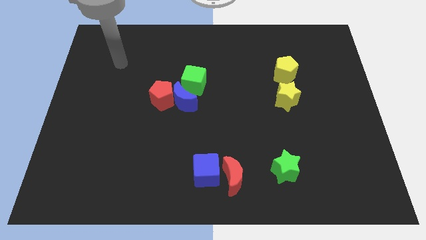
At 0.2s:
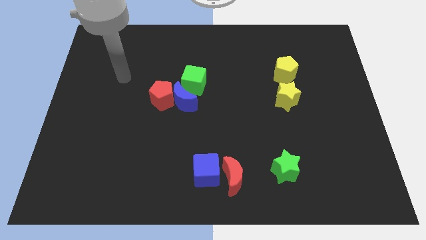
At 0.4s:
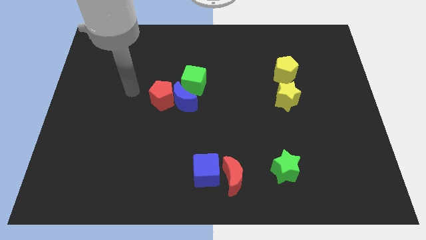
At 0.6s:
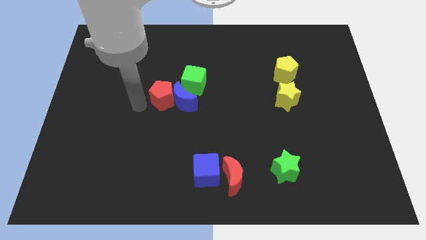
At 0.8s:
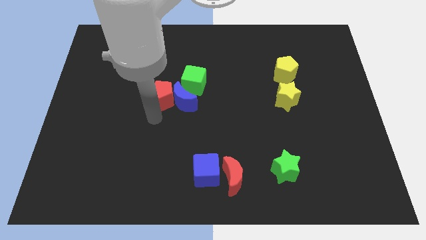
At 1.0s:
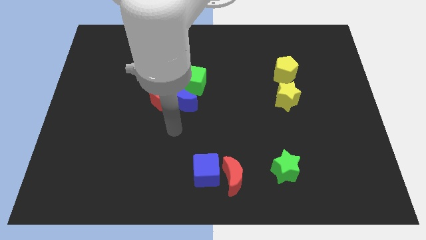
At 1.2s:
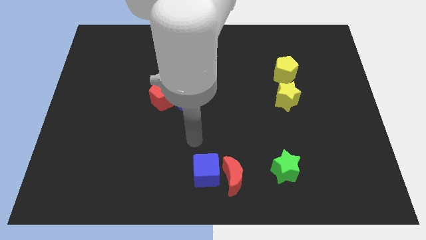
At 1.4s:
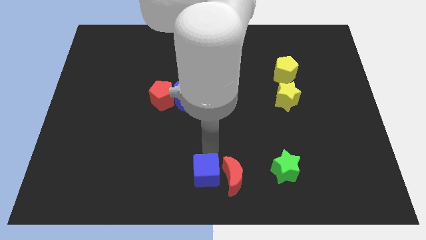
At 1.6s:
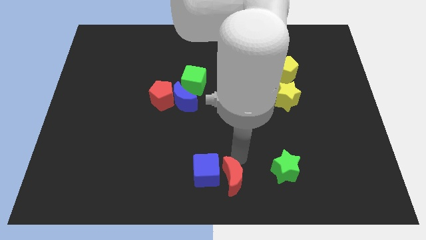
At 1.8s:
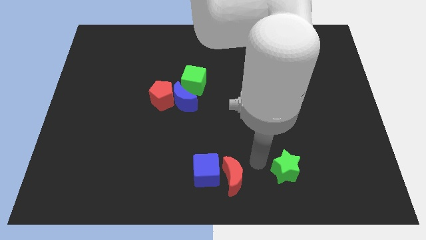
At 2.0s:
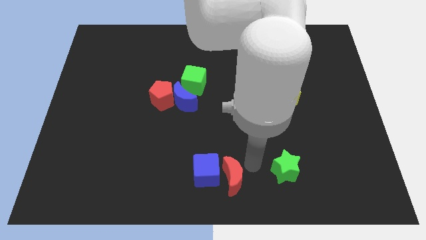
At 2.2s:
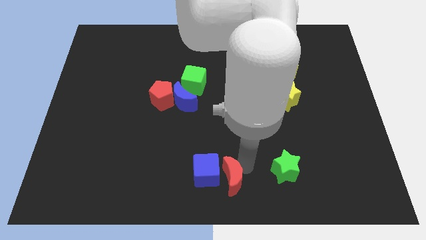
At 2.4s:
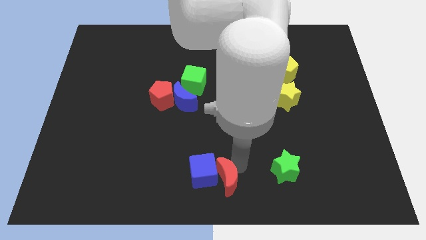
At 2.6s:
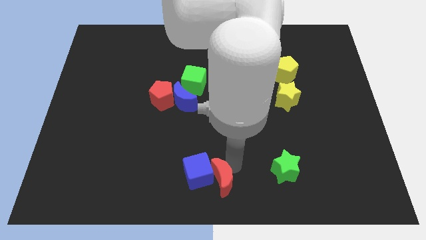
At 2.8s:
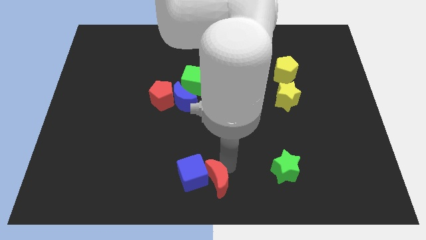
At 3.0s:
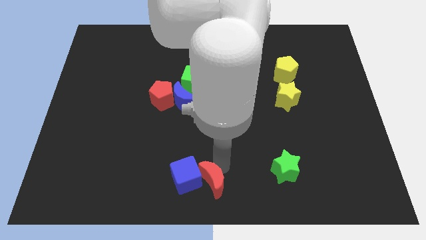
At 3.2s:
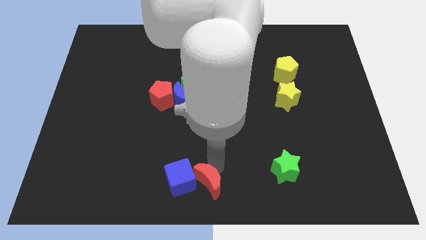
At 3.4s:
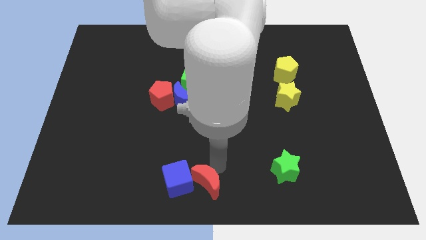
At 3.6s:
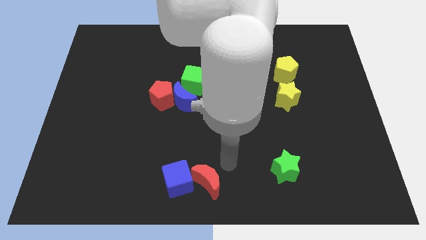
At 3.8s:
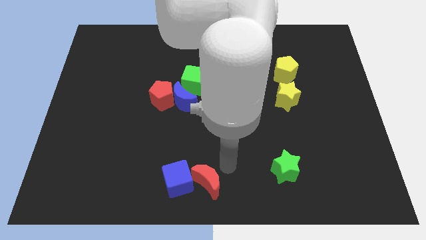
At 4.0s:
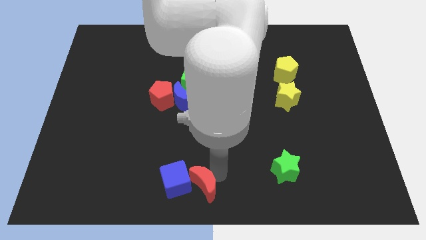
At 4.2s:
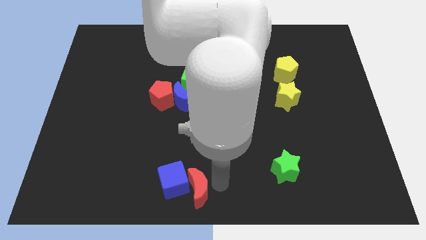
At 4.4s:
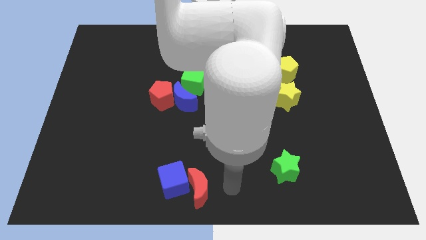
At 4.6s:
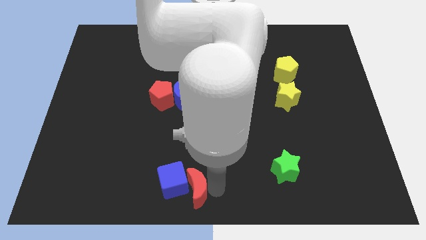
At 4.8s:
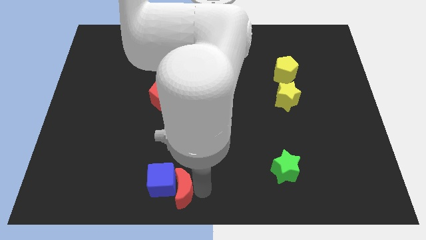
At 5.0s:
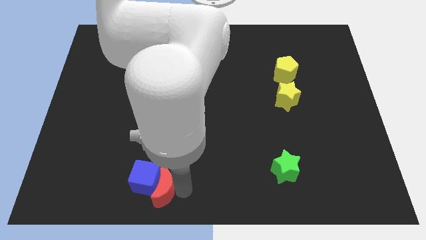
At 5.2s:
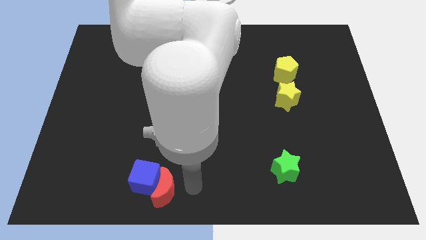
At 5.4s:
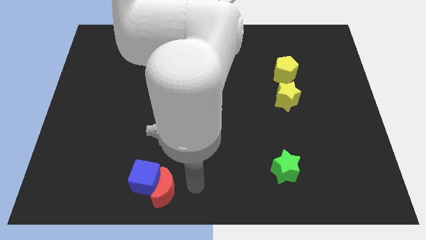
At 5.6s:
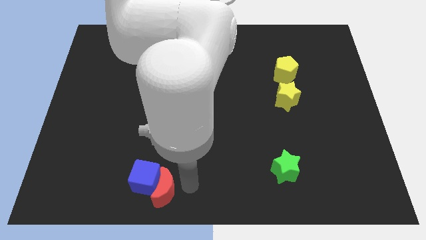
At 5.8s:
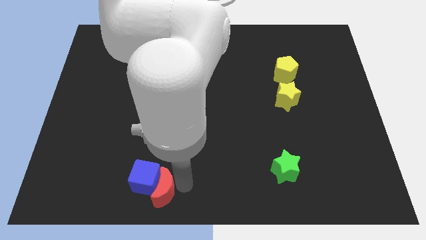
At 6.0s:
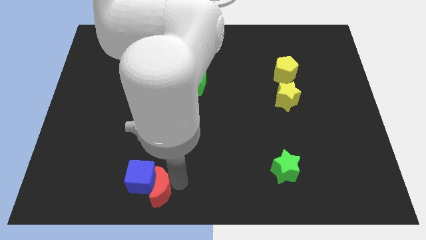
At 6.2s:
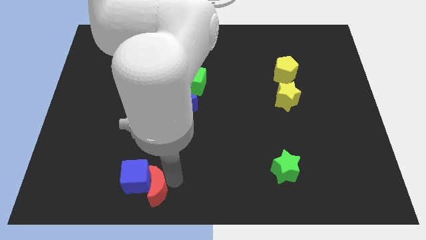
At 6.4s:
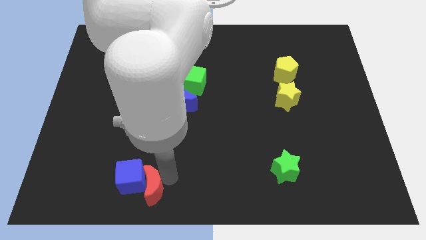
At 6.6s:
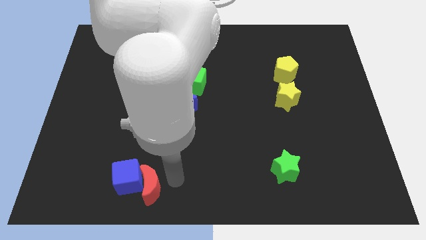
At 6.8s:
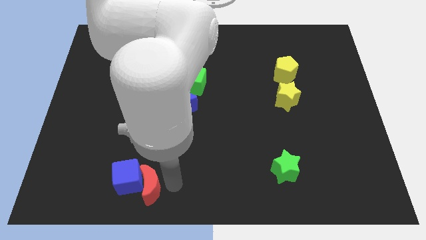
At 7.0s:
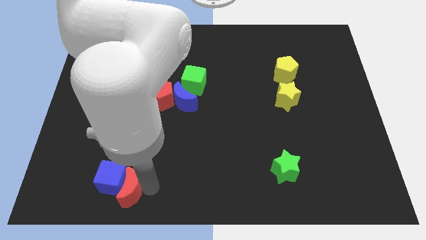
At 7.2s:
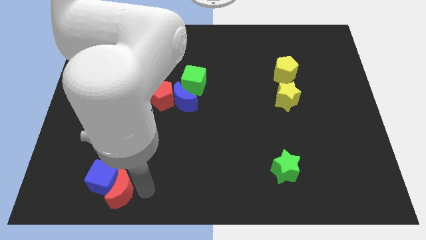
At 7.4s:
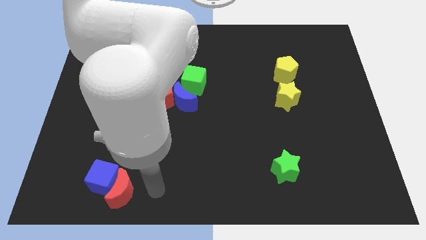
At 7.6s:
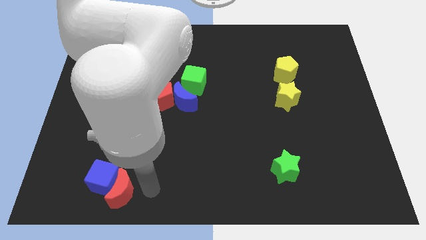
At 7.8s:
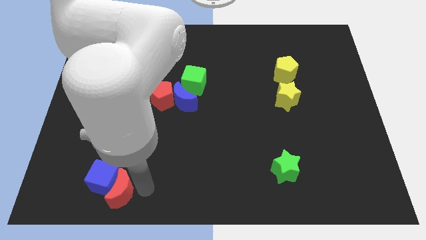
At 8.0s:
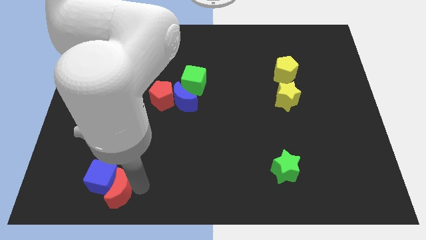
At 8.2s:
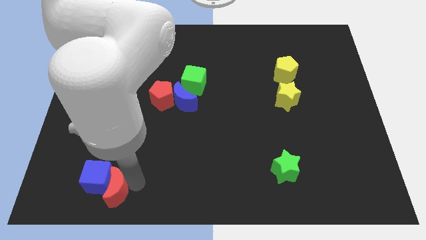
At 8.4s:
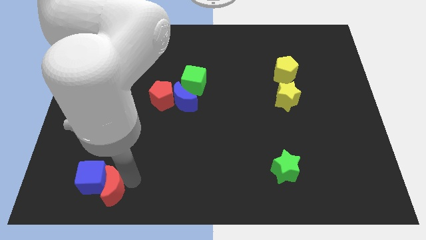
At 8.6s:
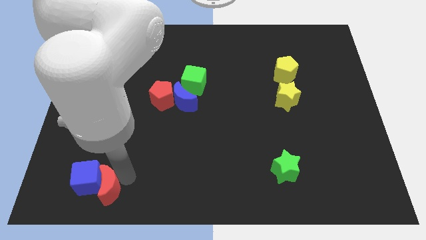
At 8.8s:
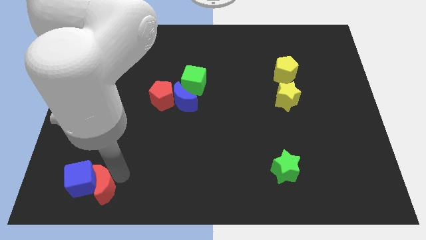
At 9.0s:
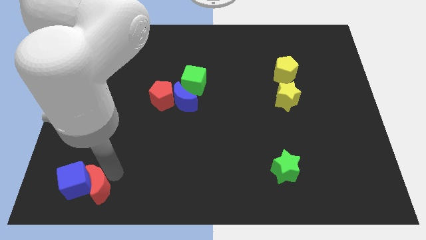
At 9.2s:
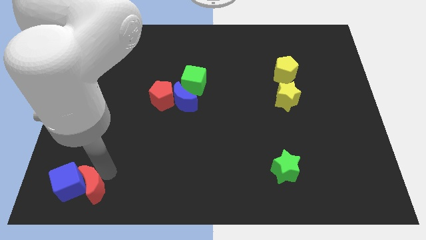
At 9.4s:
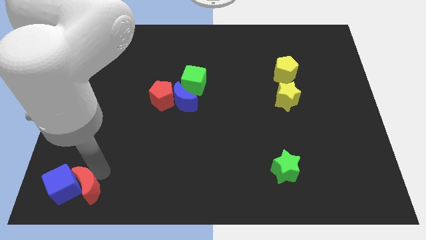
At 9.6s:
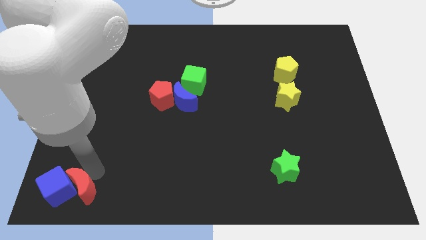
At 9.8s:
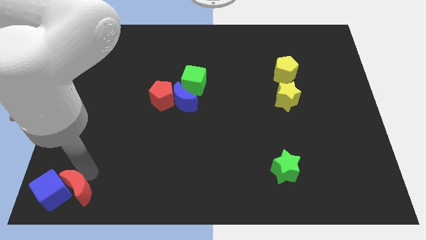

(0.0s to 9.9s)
push the red moon to the bottom left of the board

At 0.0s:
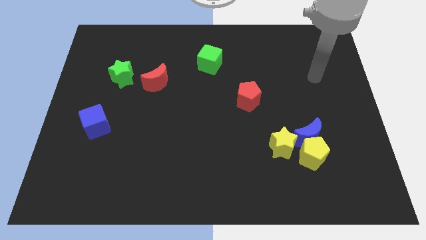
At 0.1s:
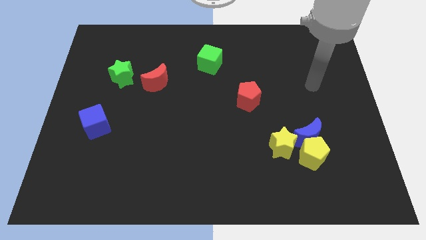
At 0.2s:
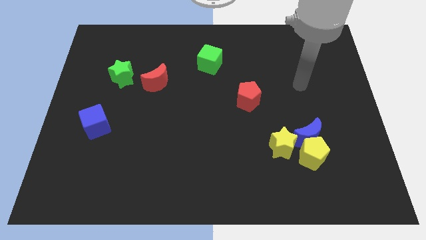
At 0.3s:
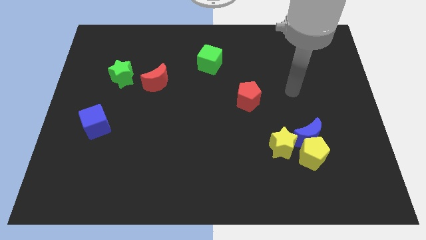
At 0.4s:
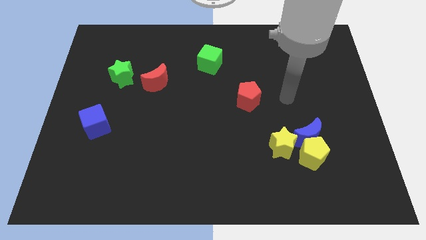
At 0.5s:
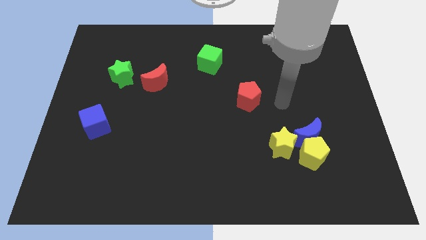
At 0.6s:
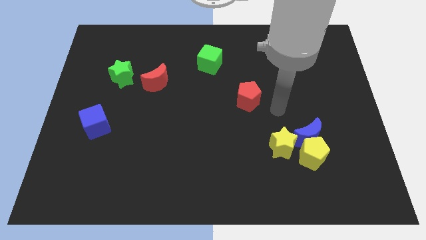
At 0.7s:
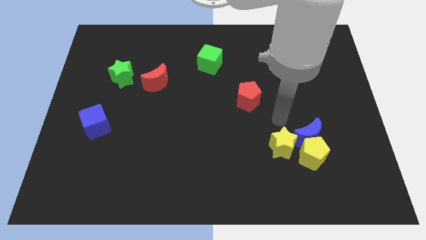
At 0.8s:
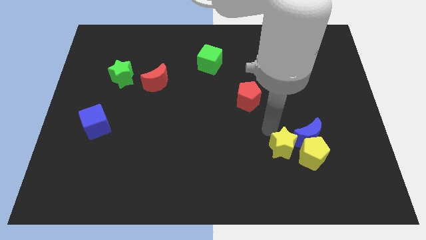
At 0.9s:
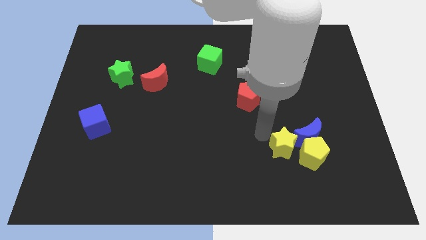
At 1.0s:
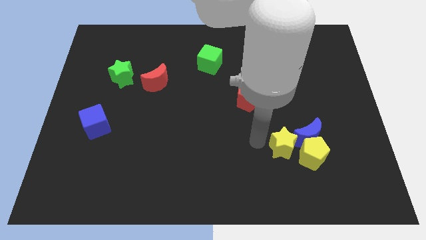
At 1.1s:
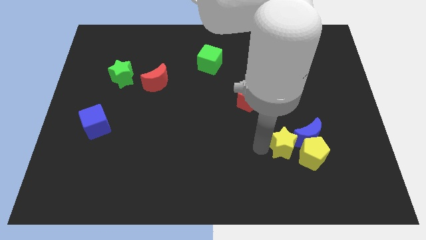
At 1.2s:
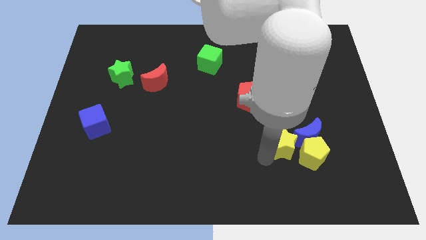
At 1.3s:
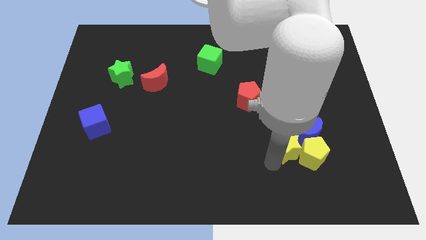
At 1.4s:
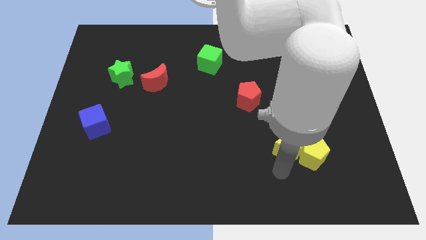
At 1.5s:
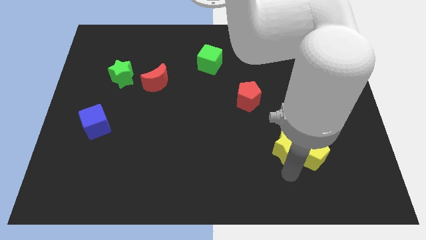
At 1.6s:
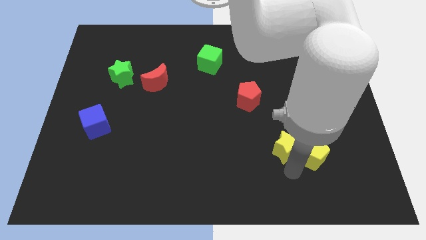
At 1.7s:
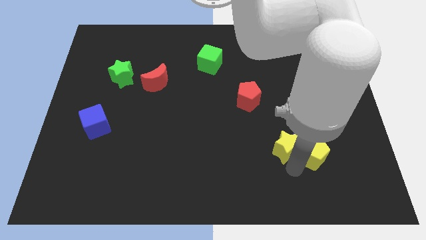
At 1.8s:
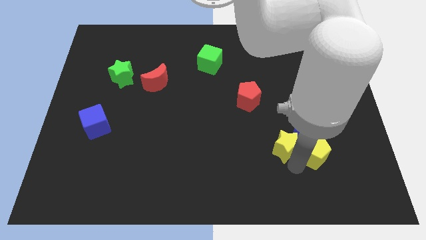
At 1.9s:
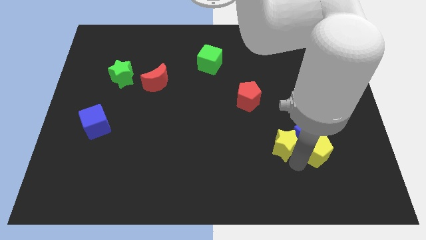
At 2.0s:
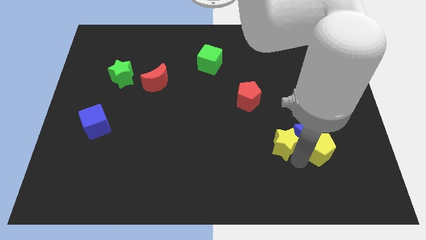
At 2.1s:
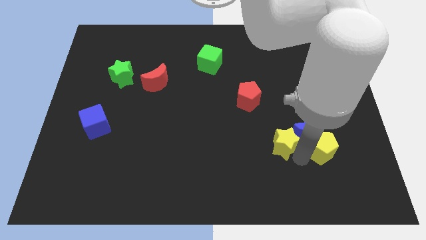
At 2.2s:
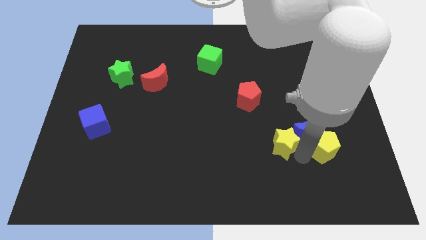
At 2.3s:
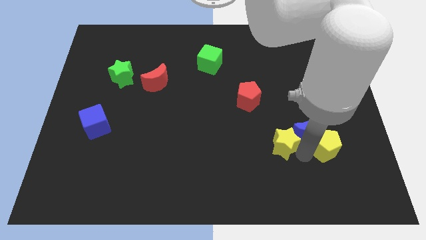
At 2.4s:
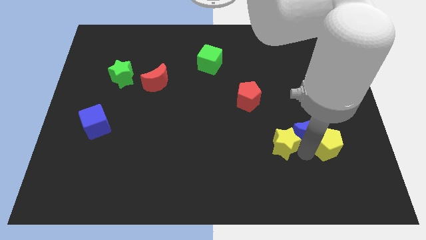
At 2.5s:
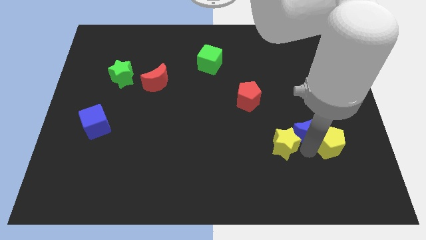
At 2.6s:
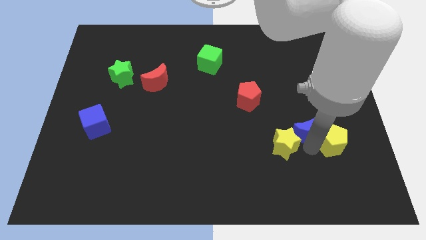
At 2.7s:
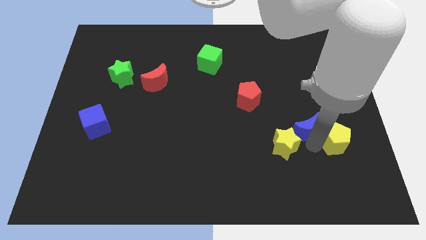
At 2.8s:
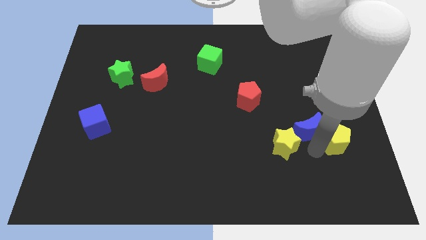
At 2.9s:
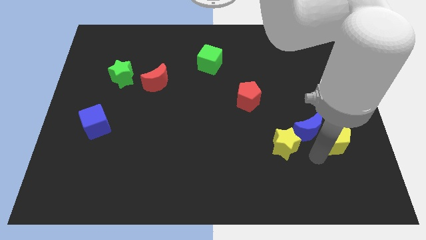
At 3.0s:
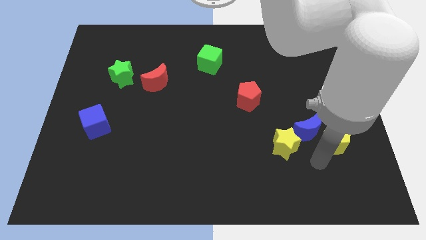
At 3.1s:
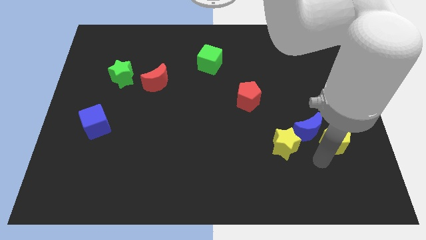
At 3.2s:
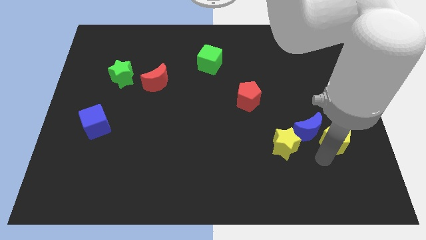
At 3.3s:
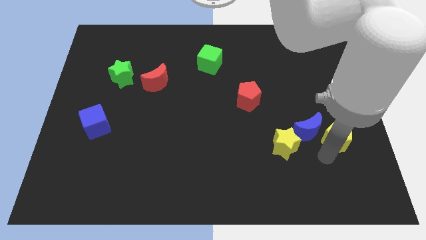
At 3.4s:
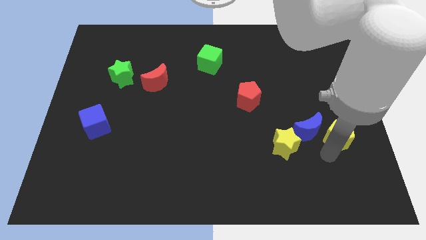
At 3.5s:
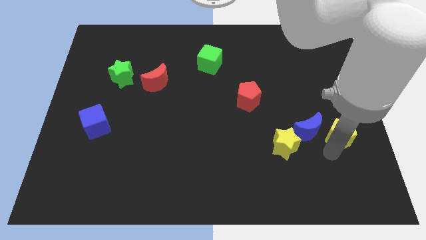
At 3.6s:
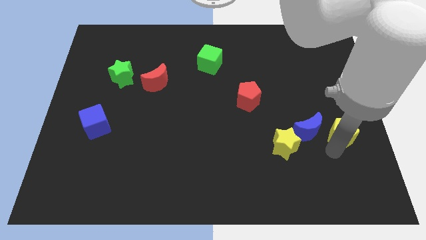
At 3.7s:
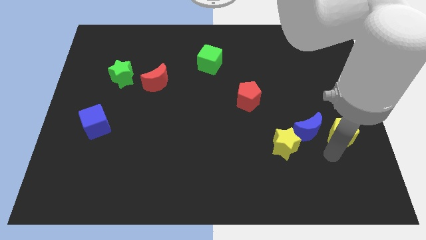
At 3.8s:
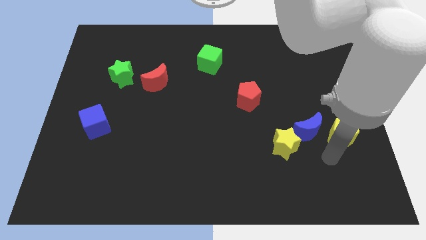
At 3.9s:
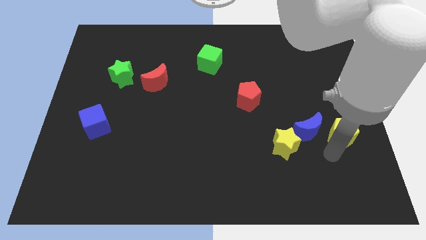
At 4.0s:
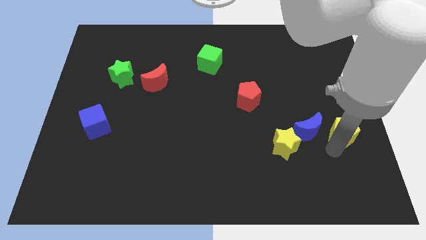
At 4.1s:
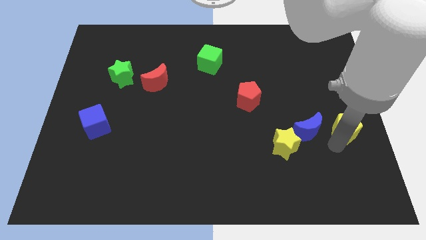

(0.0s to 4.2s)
move the yellow pentagon to the right side of the board
